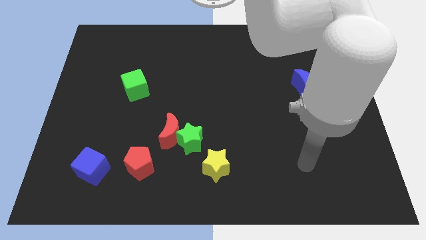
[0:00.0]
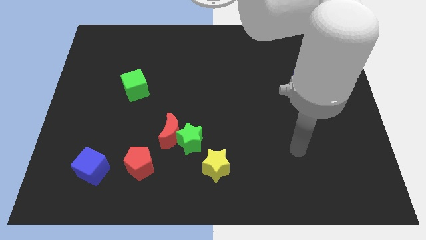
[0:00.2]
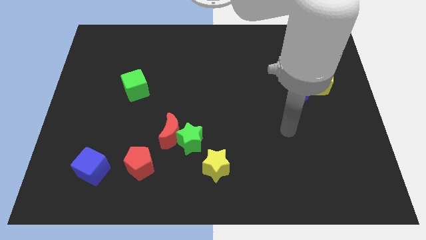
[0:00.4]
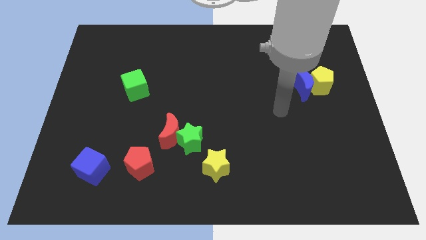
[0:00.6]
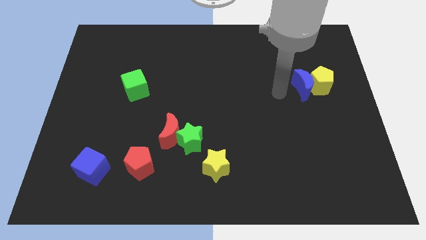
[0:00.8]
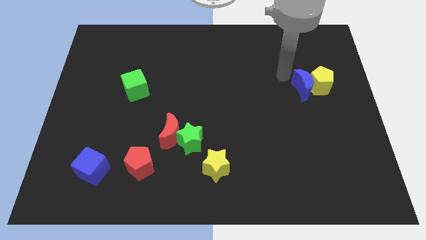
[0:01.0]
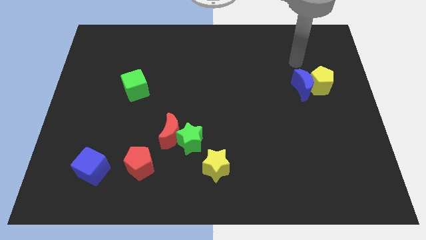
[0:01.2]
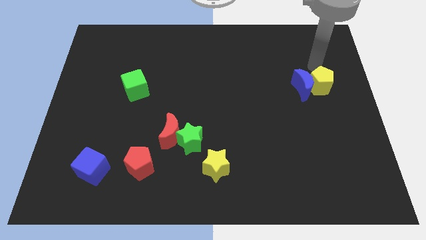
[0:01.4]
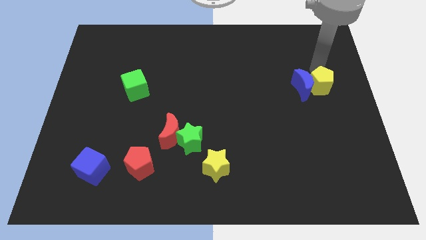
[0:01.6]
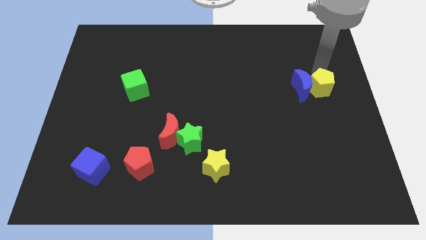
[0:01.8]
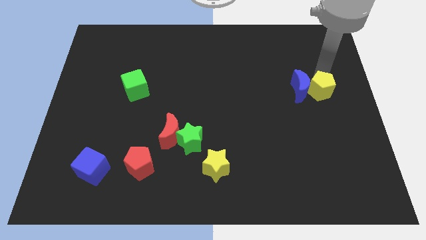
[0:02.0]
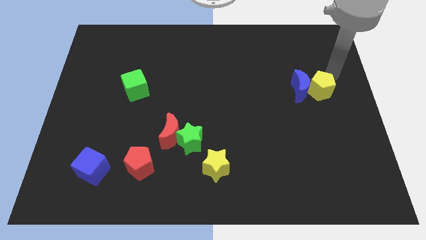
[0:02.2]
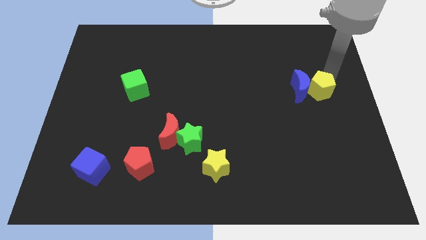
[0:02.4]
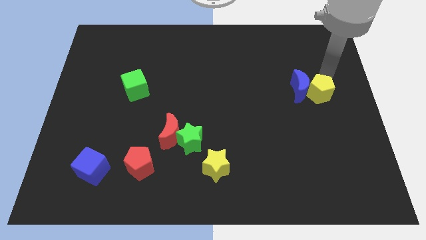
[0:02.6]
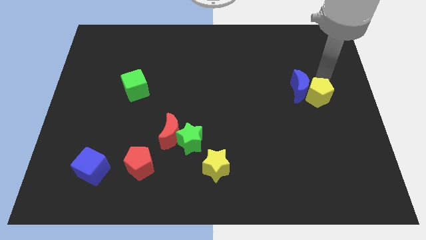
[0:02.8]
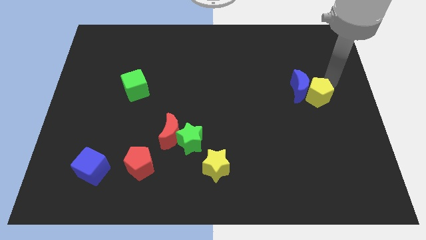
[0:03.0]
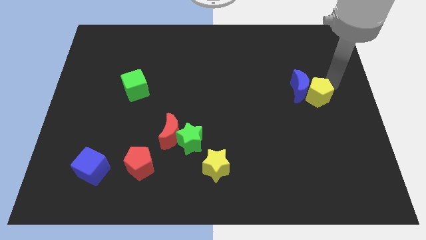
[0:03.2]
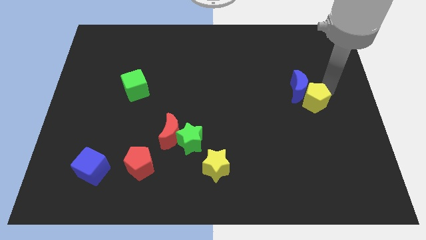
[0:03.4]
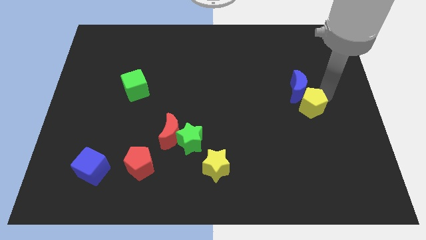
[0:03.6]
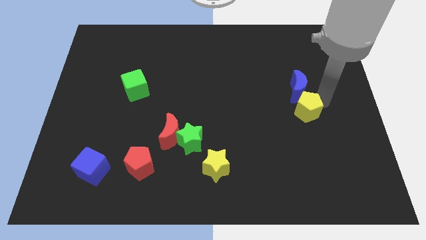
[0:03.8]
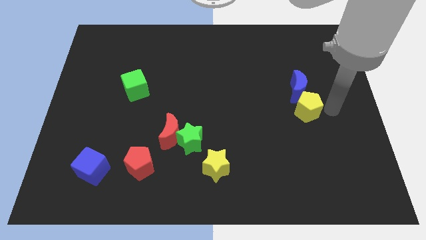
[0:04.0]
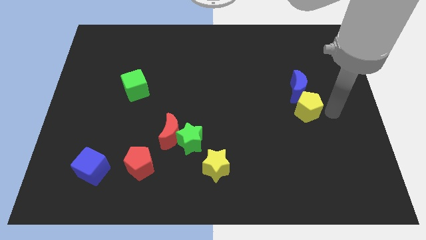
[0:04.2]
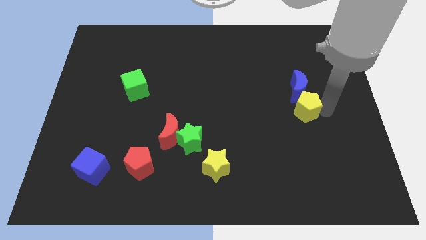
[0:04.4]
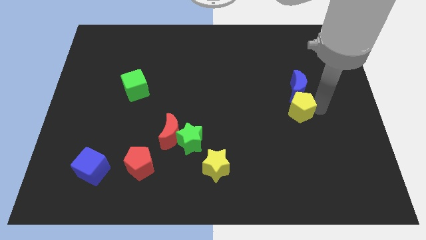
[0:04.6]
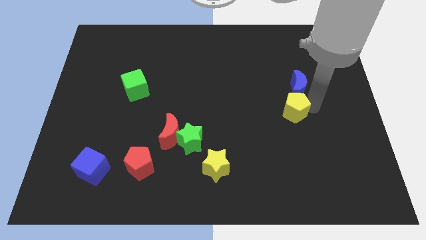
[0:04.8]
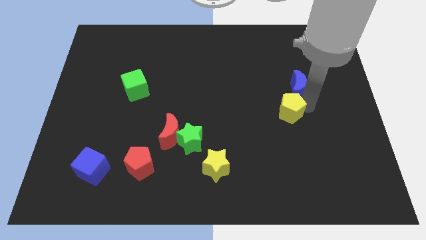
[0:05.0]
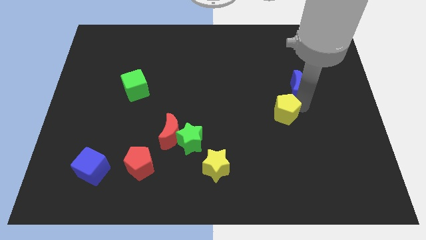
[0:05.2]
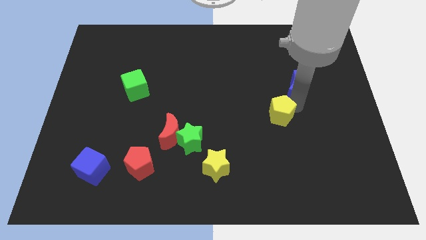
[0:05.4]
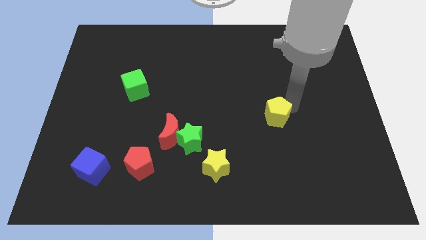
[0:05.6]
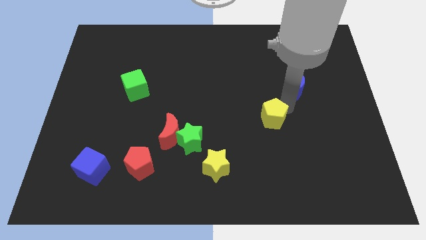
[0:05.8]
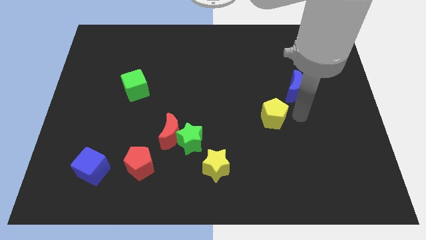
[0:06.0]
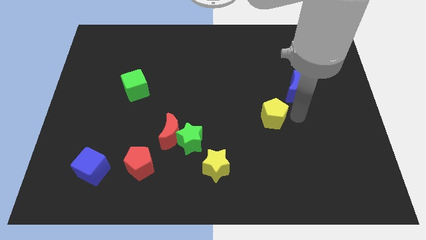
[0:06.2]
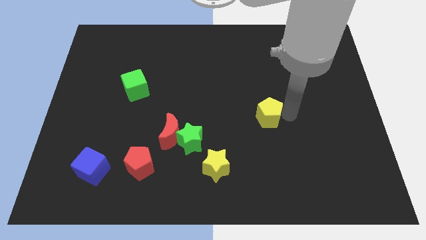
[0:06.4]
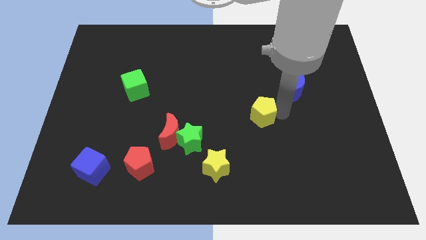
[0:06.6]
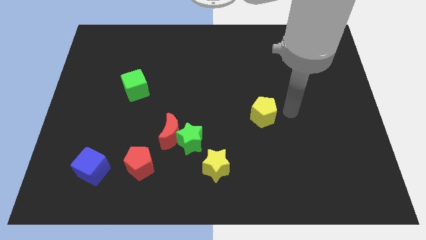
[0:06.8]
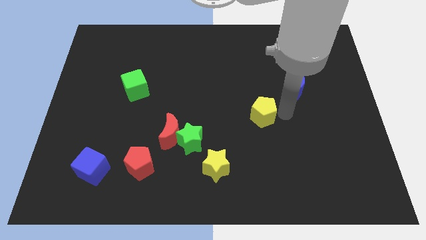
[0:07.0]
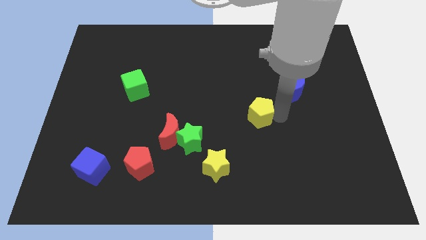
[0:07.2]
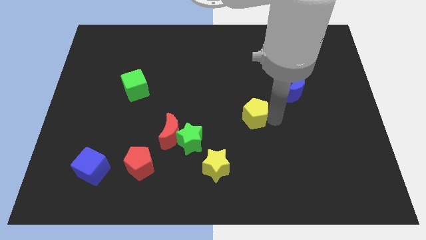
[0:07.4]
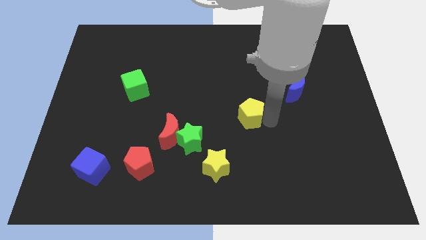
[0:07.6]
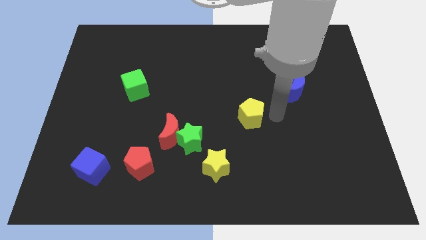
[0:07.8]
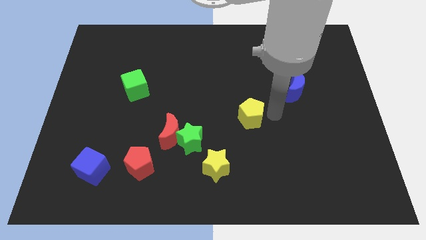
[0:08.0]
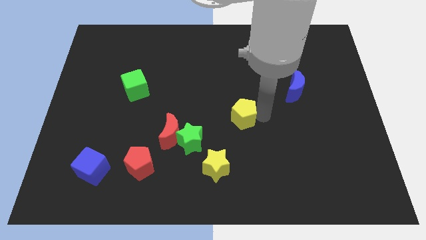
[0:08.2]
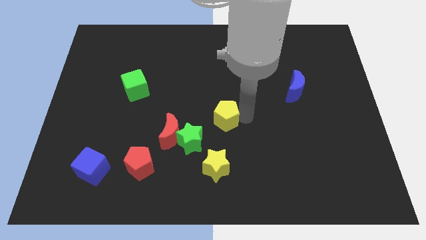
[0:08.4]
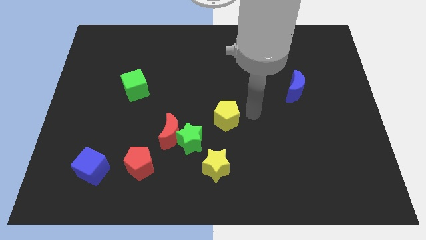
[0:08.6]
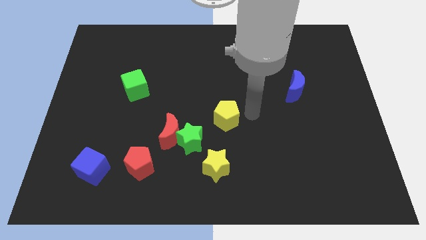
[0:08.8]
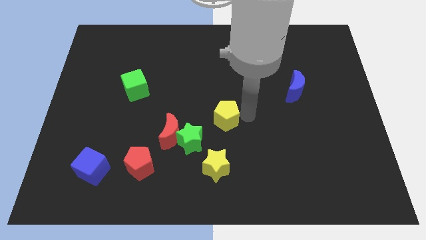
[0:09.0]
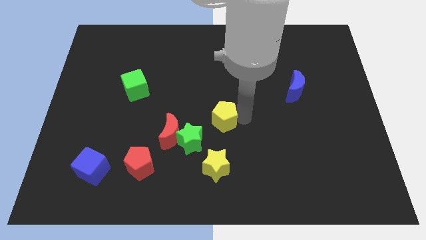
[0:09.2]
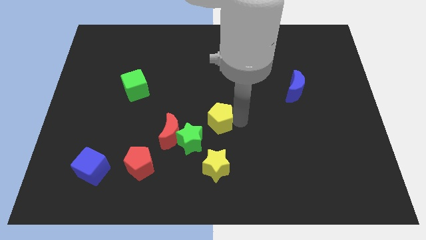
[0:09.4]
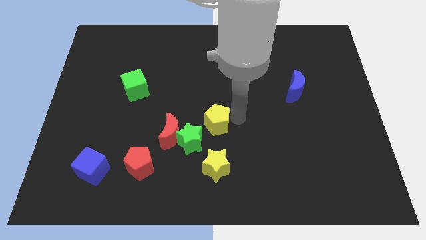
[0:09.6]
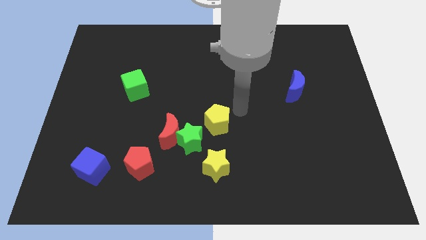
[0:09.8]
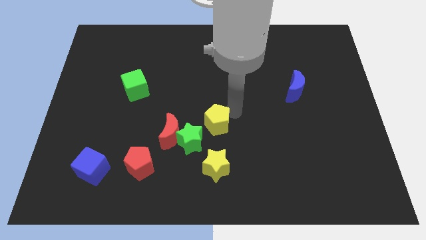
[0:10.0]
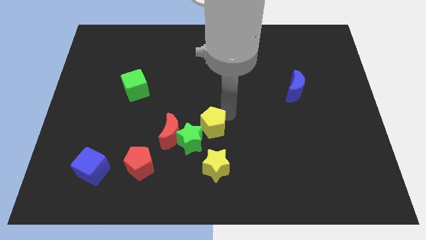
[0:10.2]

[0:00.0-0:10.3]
push the yellow pentagon next to the green star

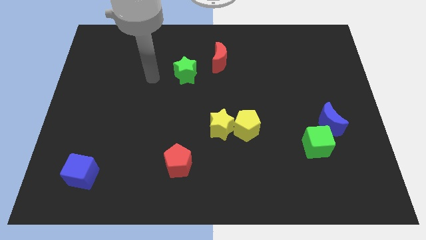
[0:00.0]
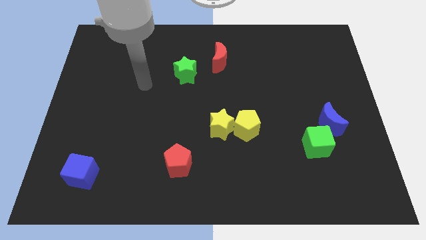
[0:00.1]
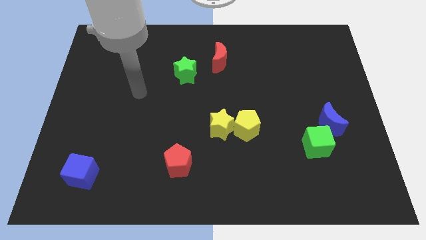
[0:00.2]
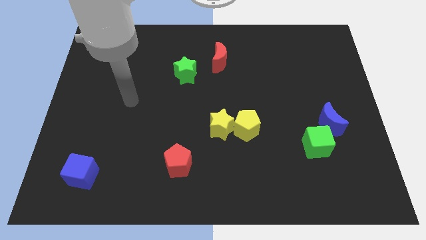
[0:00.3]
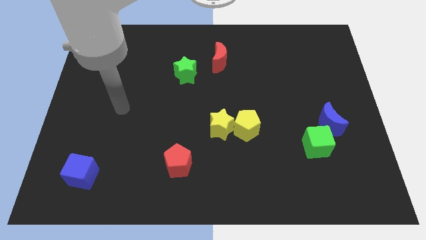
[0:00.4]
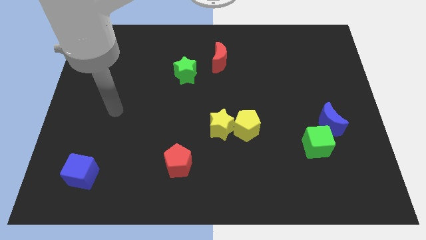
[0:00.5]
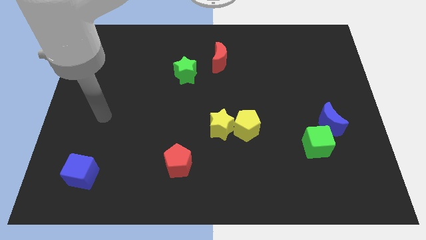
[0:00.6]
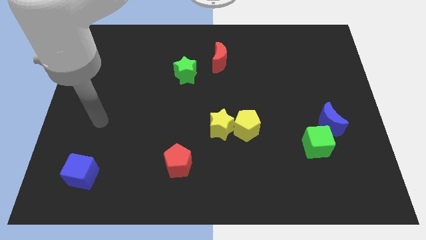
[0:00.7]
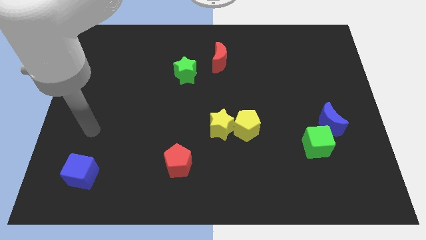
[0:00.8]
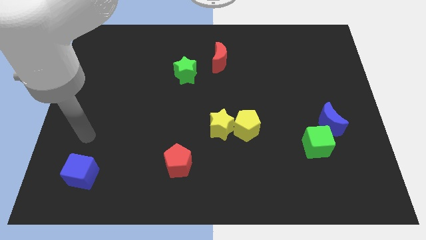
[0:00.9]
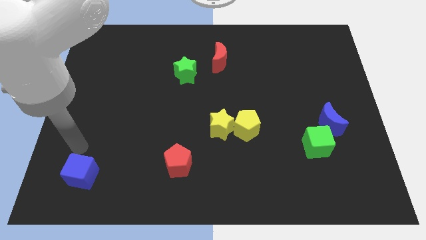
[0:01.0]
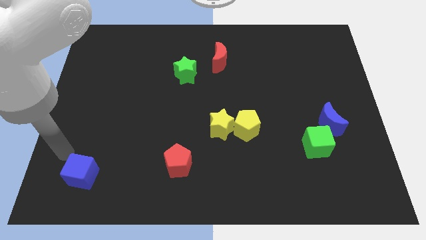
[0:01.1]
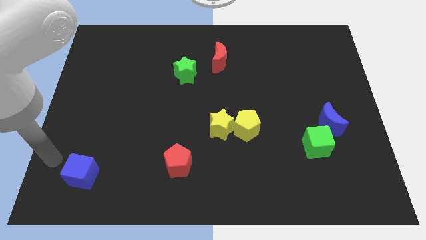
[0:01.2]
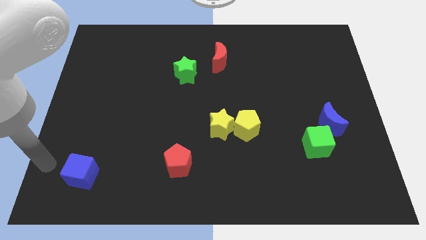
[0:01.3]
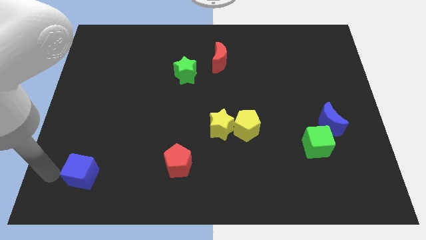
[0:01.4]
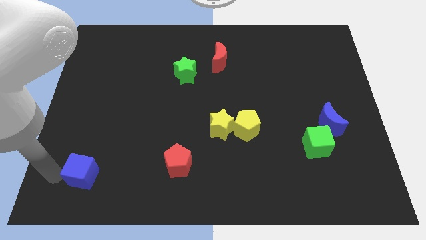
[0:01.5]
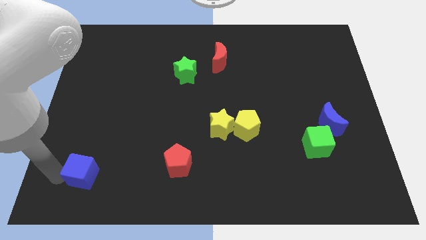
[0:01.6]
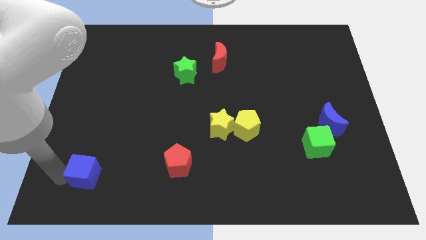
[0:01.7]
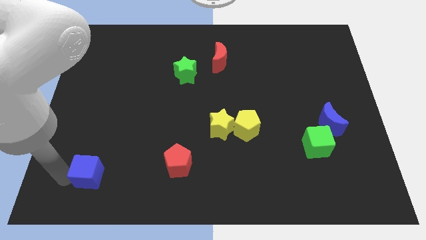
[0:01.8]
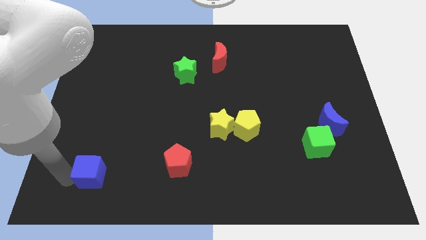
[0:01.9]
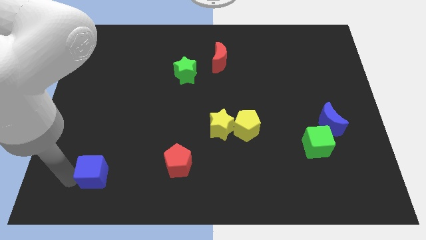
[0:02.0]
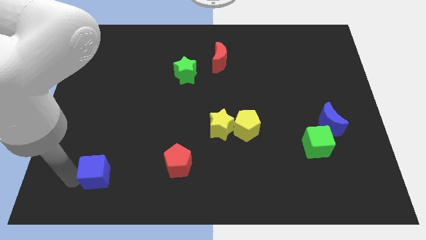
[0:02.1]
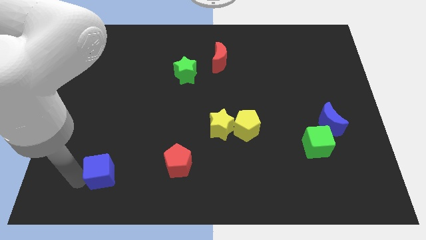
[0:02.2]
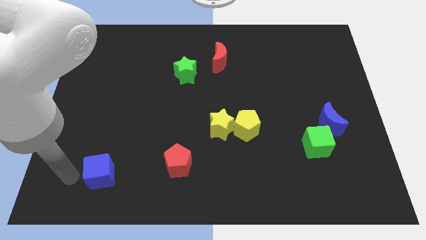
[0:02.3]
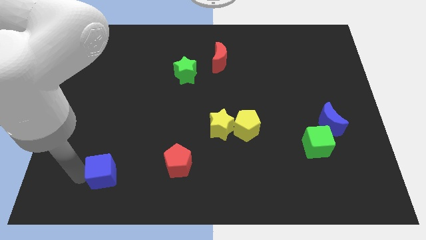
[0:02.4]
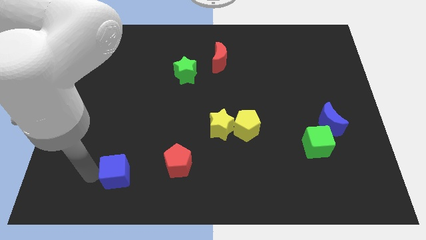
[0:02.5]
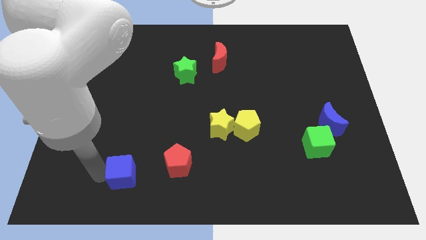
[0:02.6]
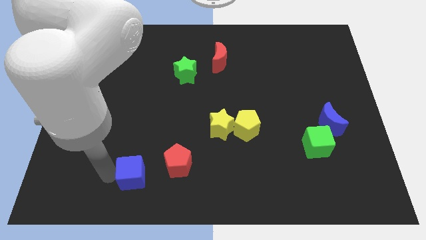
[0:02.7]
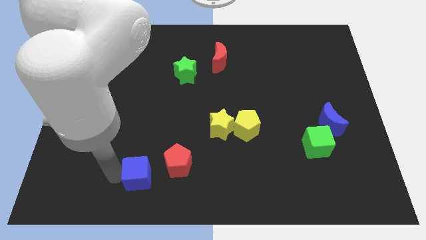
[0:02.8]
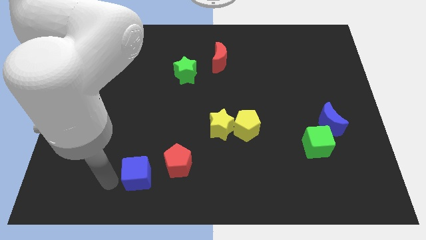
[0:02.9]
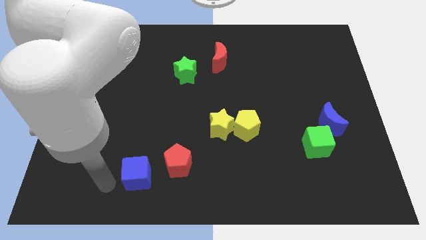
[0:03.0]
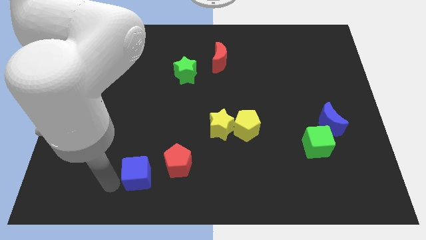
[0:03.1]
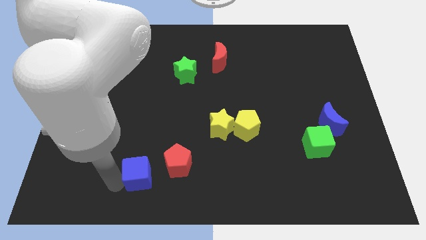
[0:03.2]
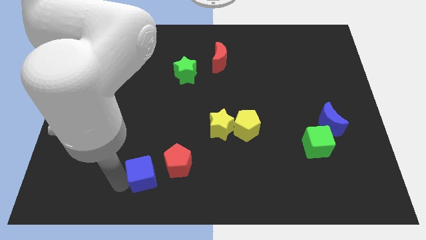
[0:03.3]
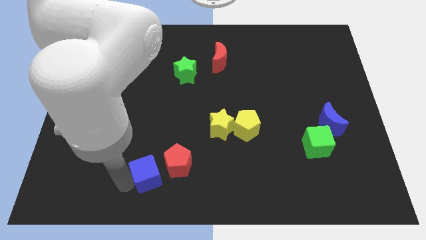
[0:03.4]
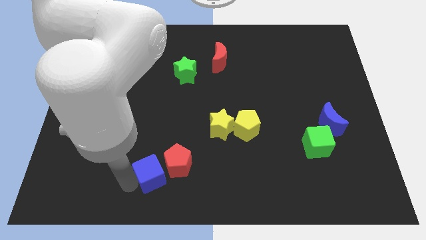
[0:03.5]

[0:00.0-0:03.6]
put the blue cube close to the red pentagon

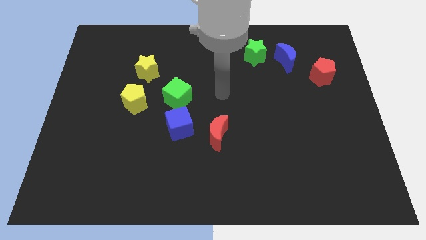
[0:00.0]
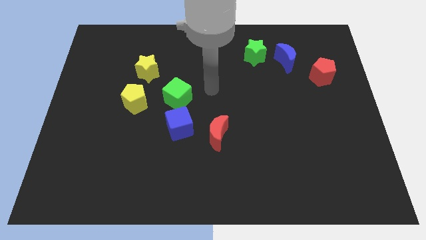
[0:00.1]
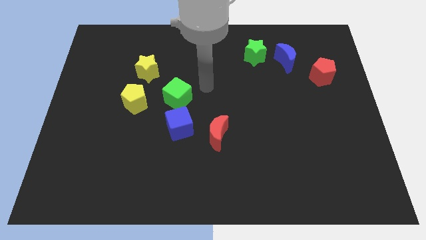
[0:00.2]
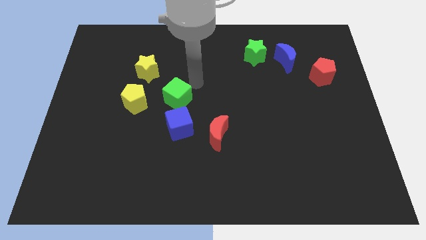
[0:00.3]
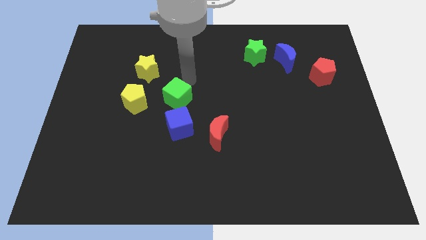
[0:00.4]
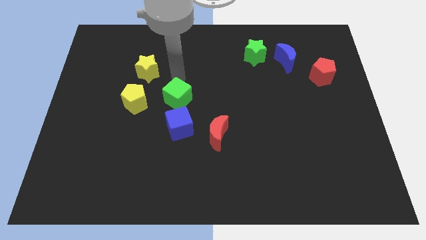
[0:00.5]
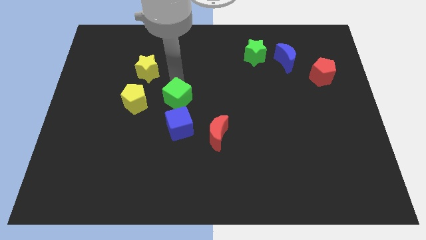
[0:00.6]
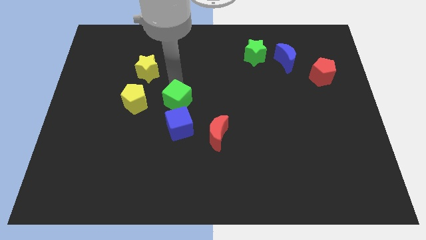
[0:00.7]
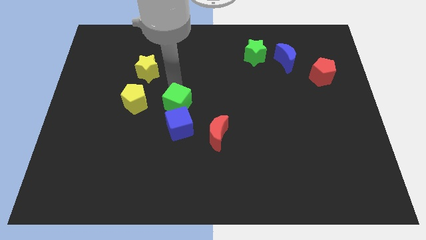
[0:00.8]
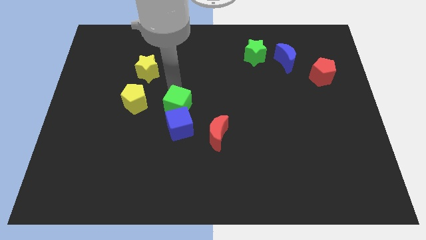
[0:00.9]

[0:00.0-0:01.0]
put the green cube towards the blue cube
